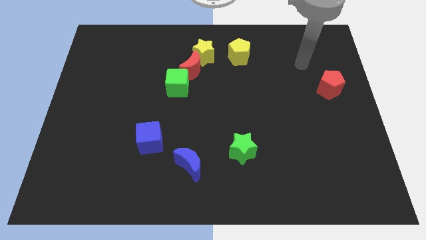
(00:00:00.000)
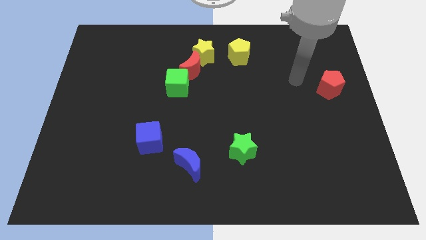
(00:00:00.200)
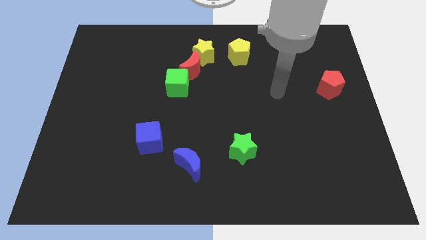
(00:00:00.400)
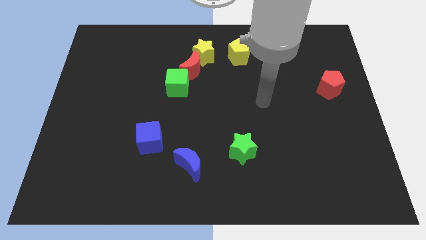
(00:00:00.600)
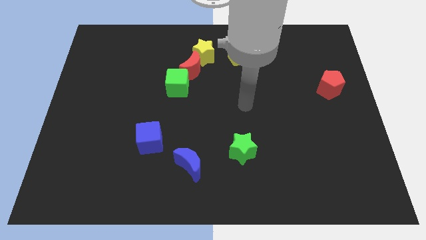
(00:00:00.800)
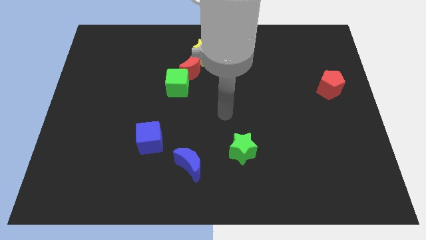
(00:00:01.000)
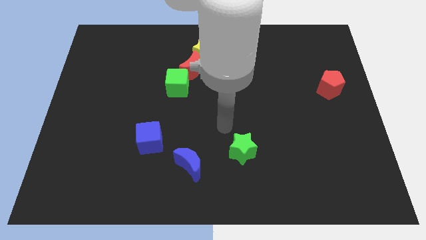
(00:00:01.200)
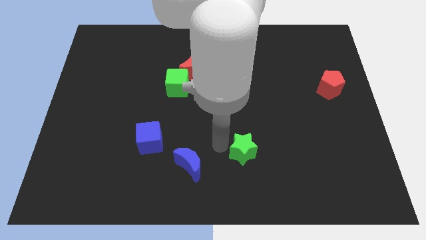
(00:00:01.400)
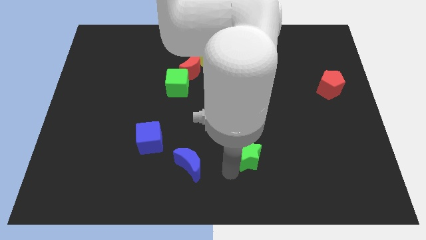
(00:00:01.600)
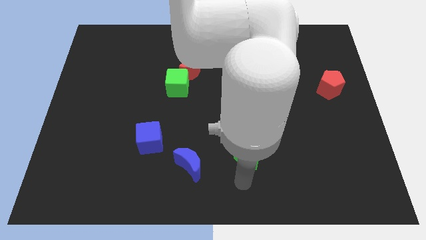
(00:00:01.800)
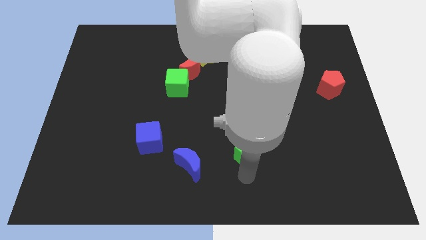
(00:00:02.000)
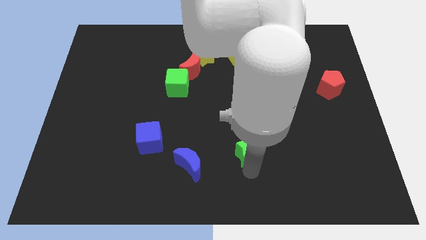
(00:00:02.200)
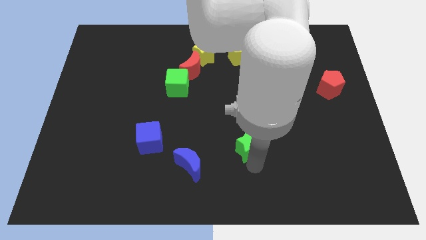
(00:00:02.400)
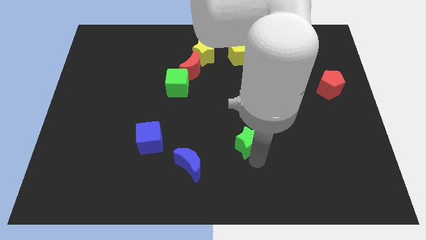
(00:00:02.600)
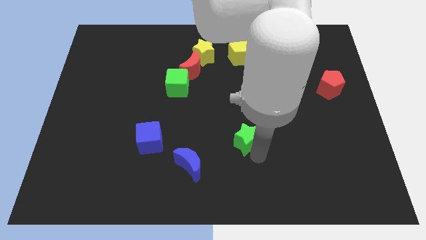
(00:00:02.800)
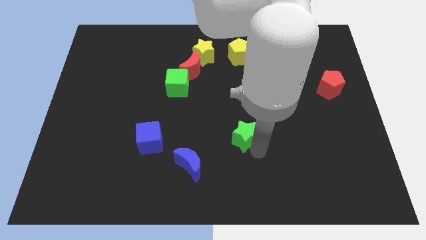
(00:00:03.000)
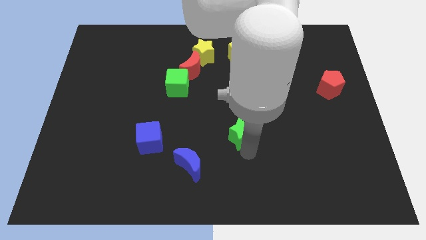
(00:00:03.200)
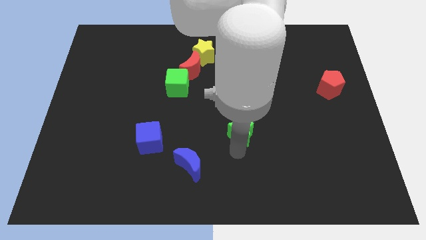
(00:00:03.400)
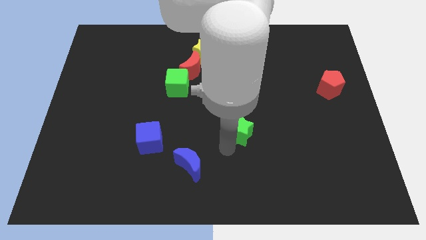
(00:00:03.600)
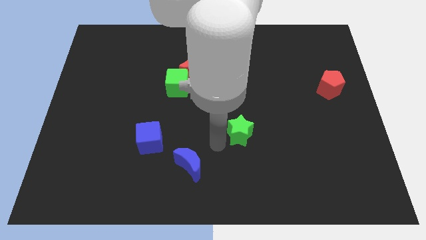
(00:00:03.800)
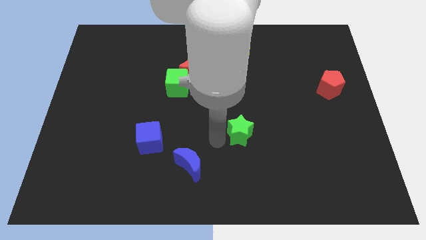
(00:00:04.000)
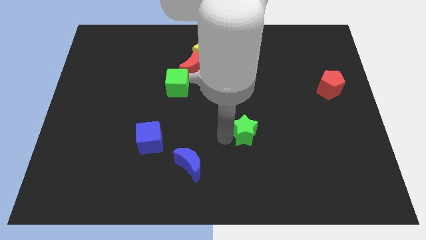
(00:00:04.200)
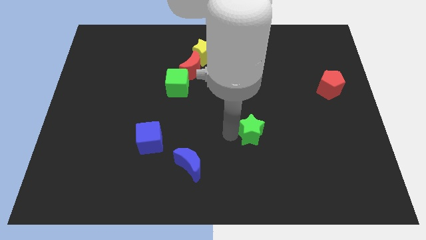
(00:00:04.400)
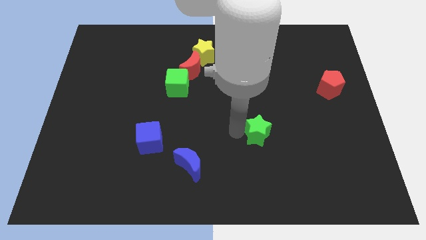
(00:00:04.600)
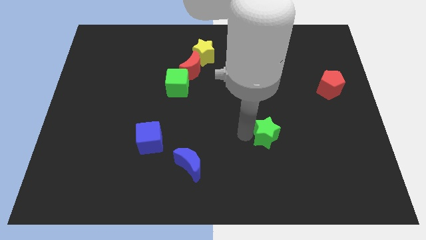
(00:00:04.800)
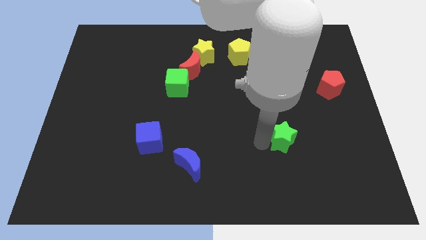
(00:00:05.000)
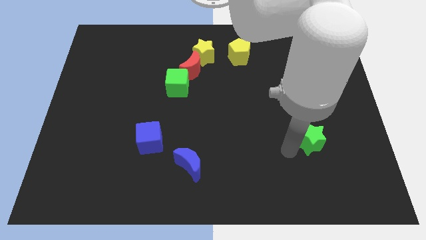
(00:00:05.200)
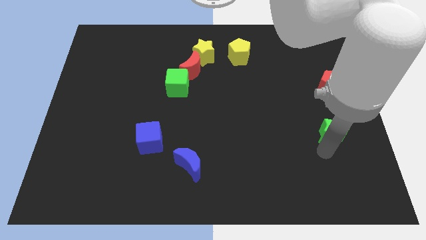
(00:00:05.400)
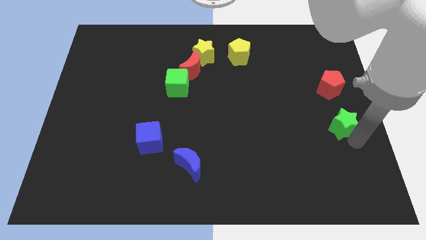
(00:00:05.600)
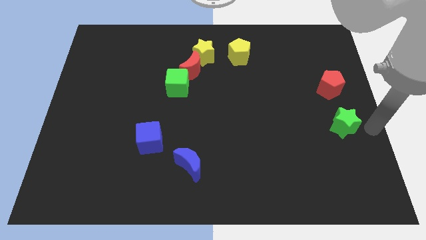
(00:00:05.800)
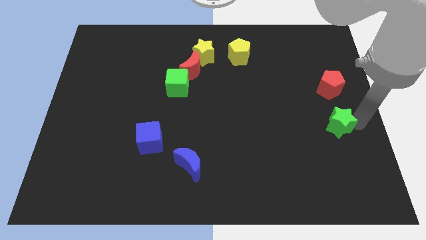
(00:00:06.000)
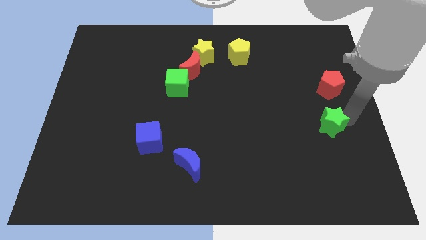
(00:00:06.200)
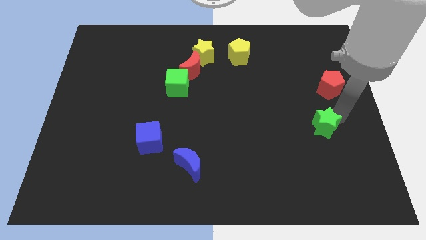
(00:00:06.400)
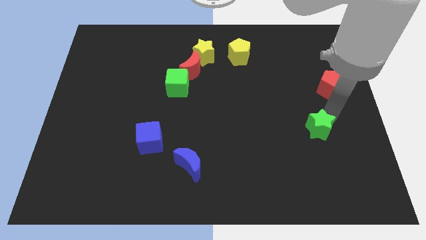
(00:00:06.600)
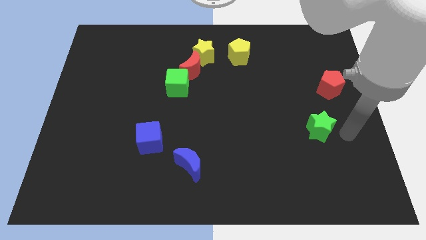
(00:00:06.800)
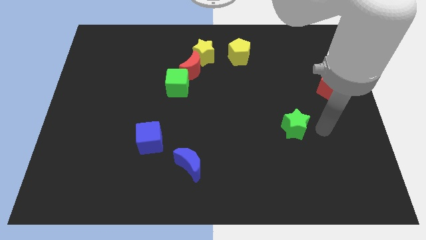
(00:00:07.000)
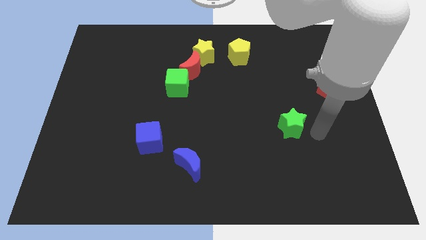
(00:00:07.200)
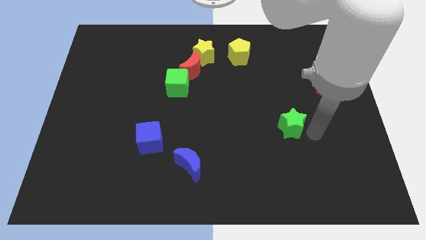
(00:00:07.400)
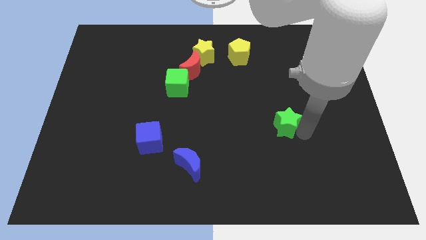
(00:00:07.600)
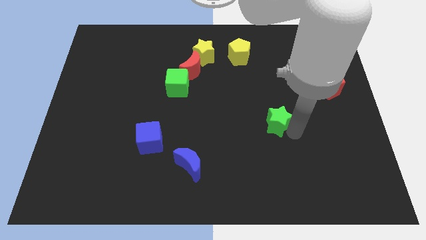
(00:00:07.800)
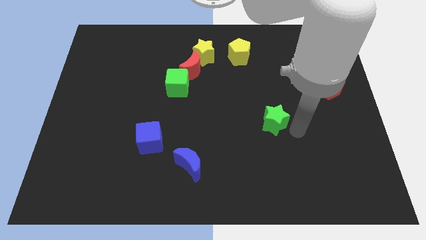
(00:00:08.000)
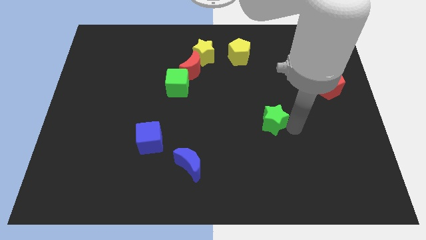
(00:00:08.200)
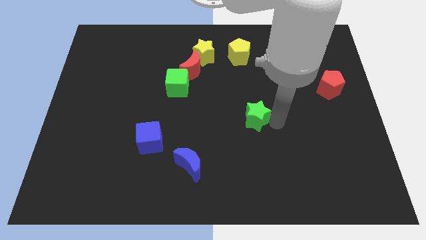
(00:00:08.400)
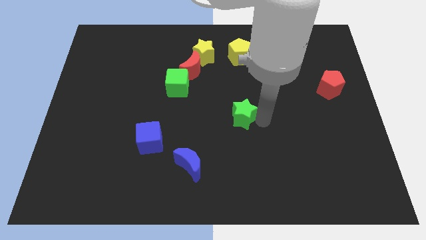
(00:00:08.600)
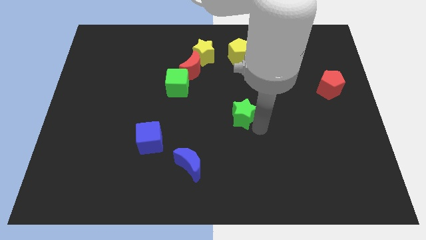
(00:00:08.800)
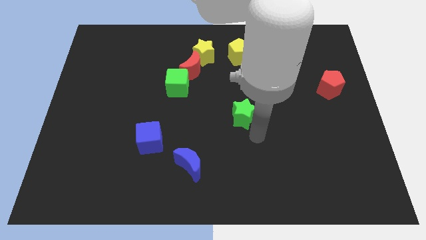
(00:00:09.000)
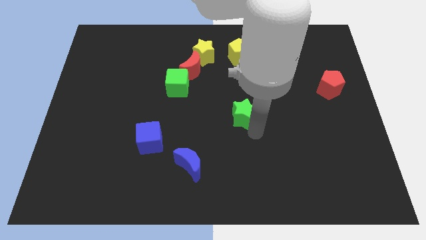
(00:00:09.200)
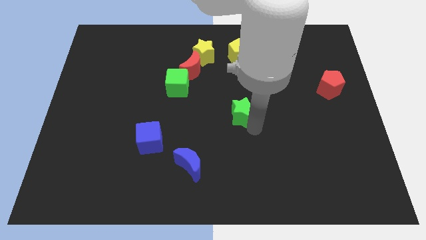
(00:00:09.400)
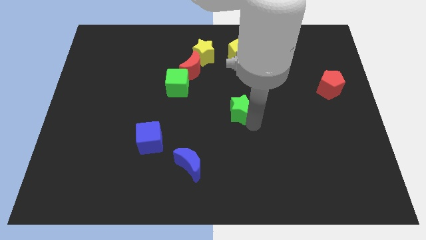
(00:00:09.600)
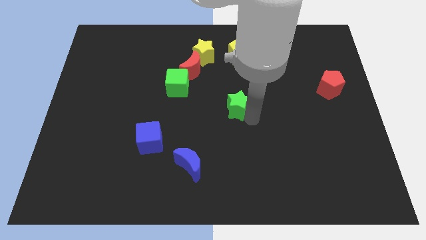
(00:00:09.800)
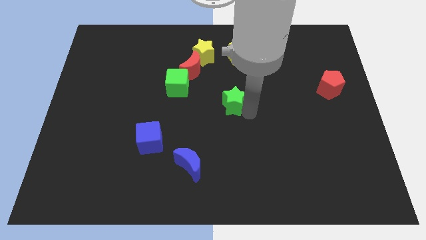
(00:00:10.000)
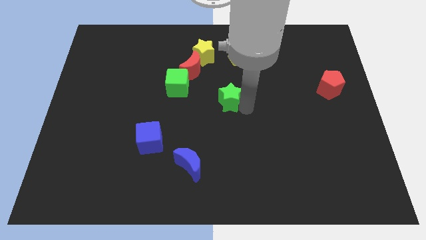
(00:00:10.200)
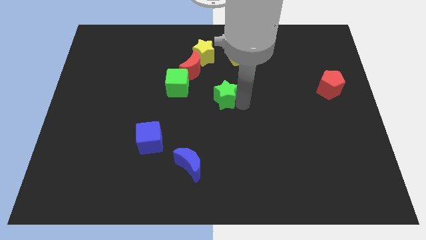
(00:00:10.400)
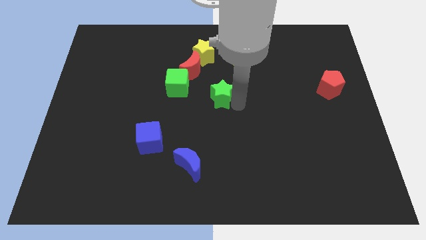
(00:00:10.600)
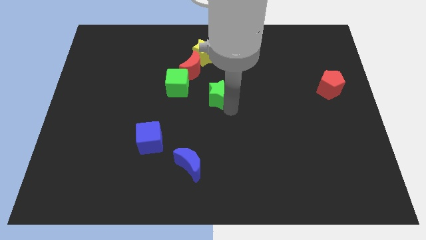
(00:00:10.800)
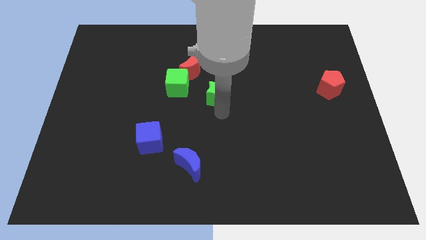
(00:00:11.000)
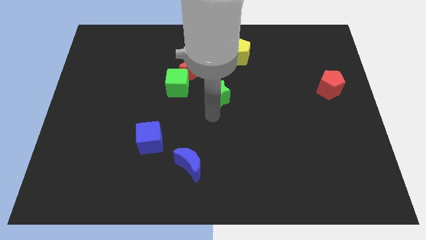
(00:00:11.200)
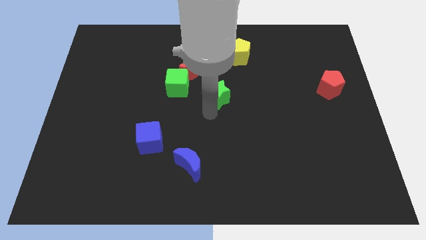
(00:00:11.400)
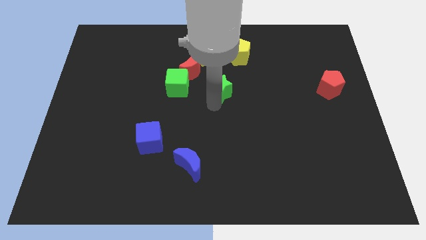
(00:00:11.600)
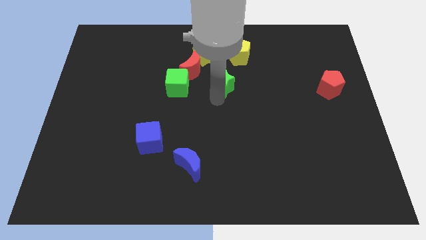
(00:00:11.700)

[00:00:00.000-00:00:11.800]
slide the green star to the bottom left of the yellow pentagon

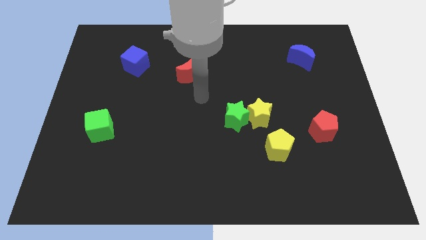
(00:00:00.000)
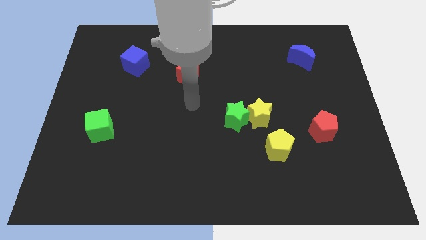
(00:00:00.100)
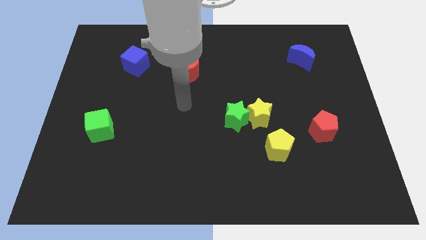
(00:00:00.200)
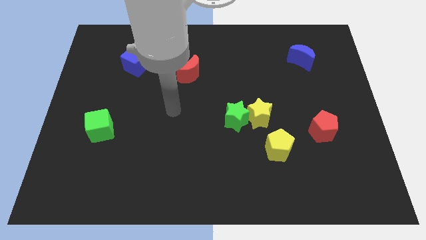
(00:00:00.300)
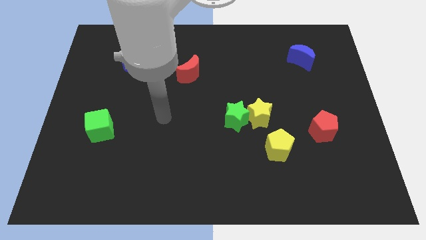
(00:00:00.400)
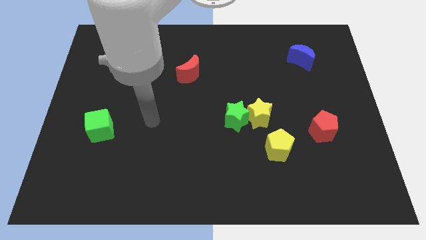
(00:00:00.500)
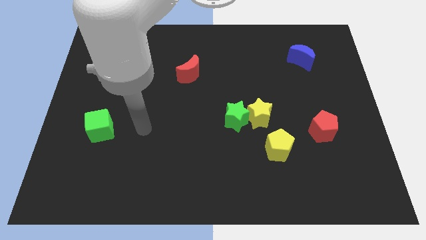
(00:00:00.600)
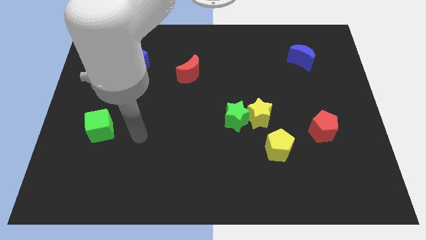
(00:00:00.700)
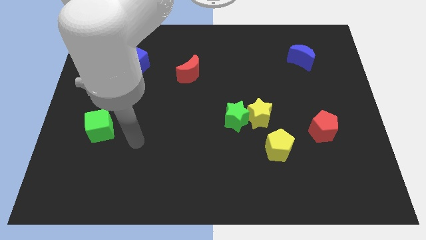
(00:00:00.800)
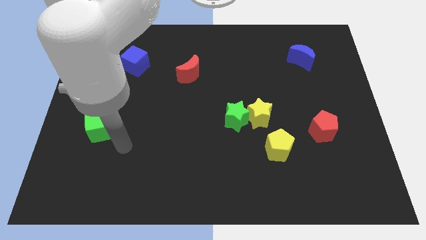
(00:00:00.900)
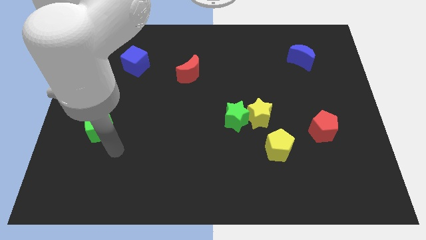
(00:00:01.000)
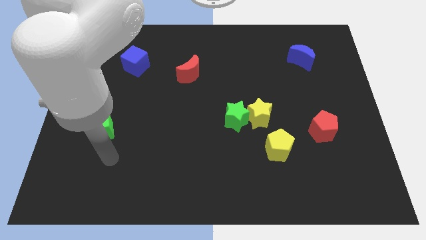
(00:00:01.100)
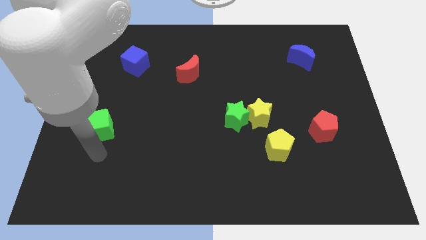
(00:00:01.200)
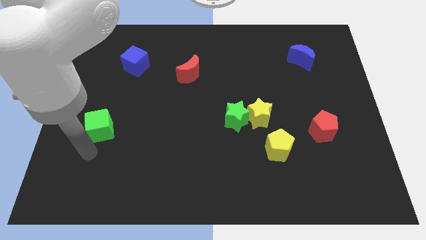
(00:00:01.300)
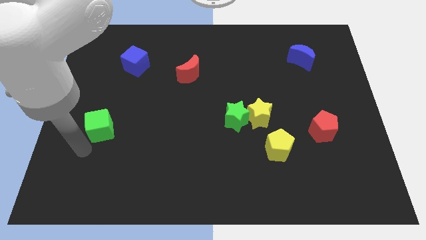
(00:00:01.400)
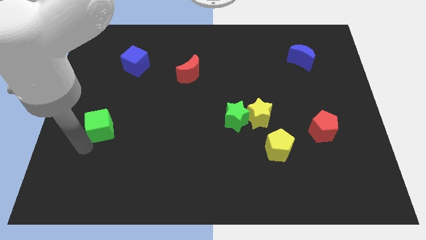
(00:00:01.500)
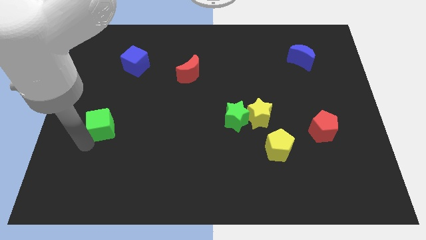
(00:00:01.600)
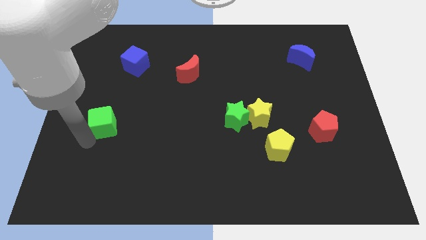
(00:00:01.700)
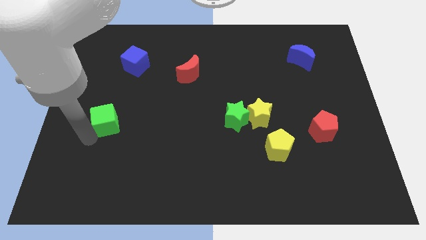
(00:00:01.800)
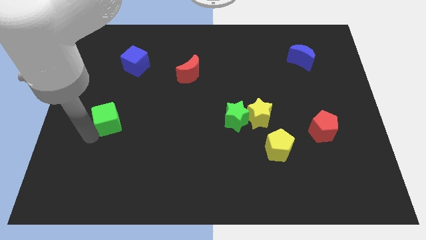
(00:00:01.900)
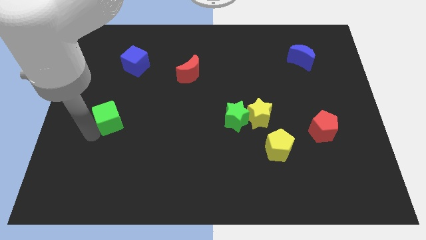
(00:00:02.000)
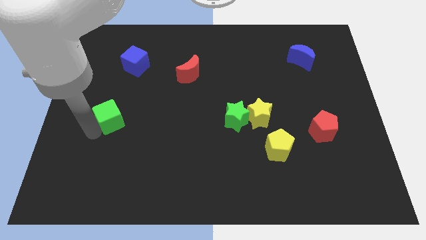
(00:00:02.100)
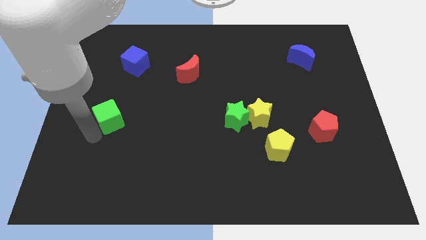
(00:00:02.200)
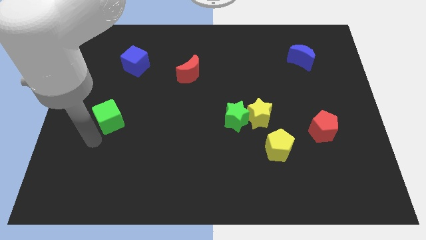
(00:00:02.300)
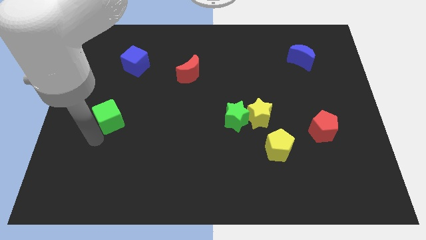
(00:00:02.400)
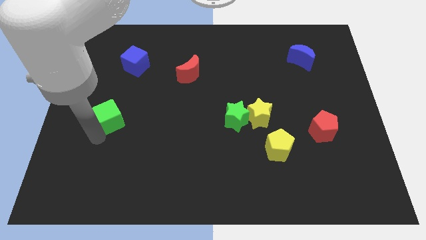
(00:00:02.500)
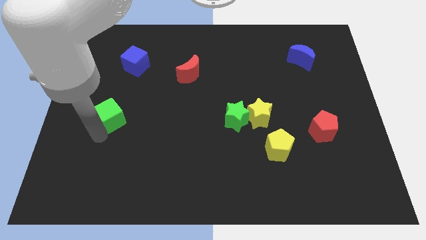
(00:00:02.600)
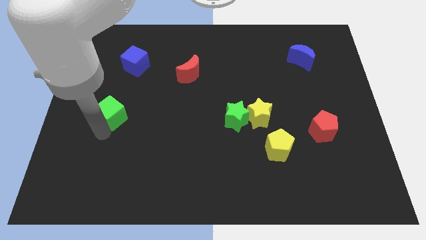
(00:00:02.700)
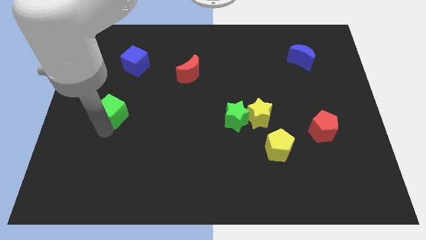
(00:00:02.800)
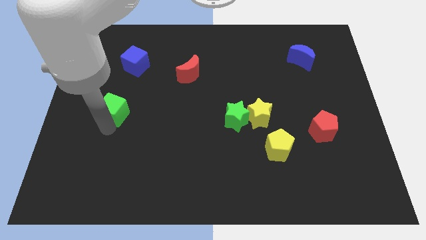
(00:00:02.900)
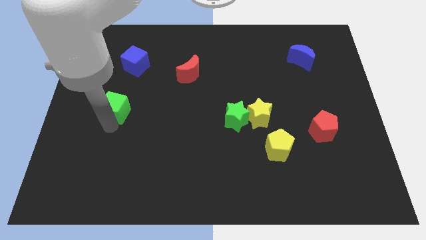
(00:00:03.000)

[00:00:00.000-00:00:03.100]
move the green cube to the bottom of the blue cube
